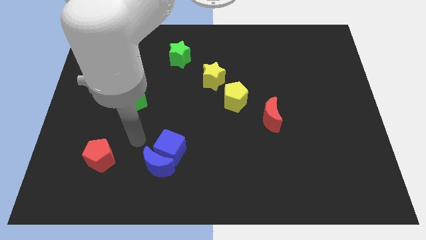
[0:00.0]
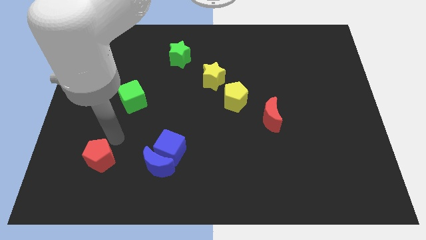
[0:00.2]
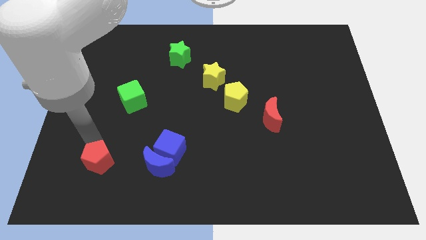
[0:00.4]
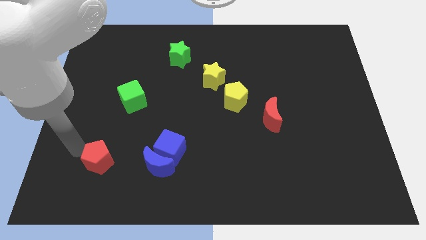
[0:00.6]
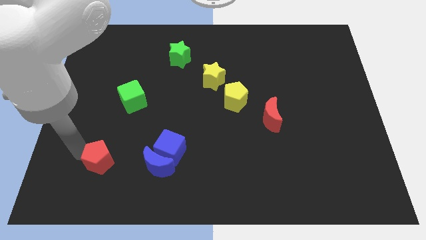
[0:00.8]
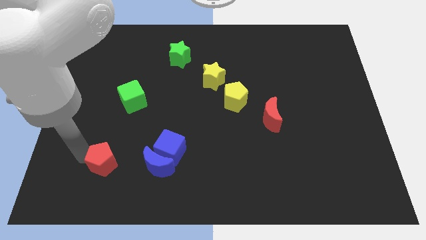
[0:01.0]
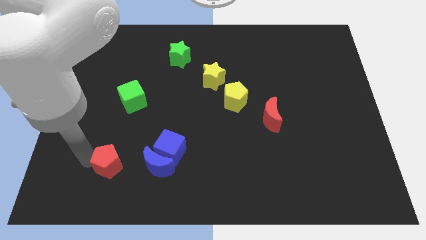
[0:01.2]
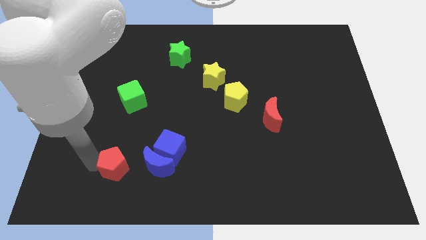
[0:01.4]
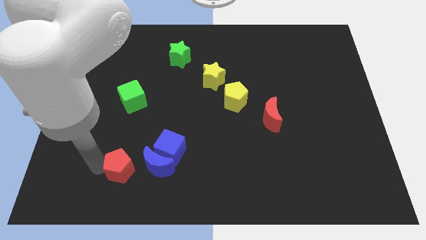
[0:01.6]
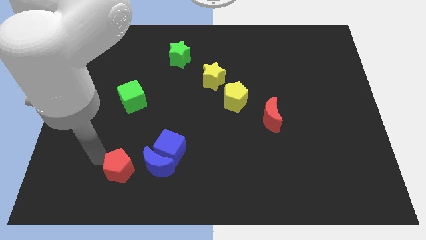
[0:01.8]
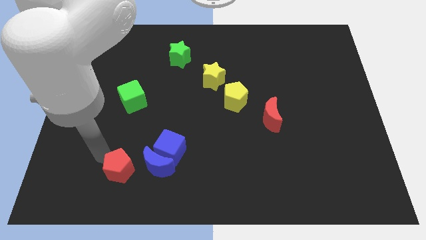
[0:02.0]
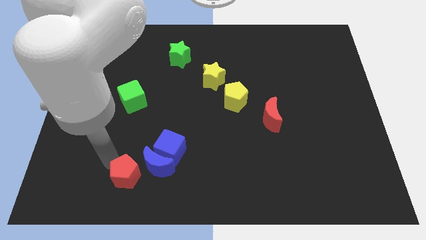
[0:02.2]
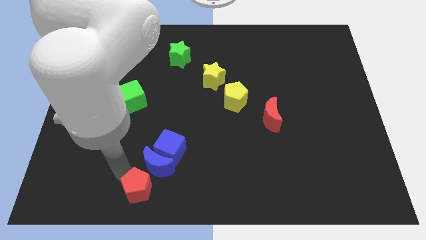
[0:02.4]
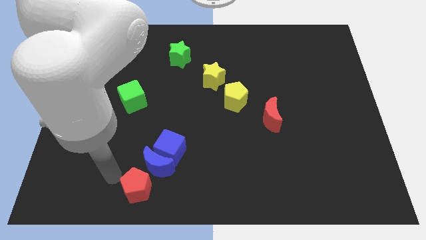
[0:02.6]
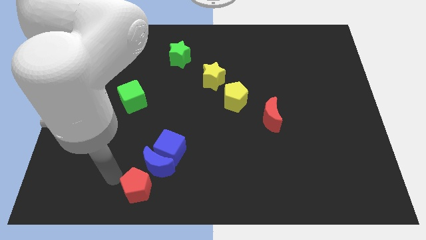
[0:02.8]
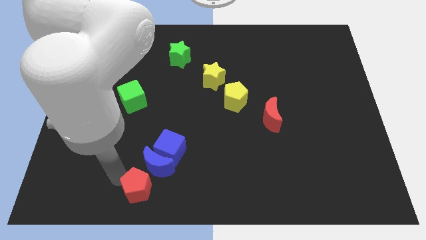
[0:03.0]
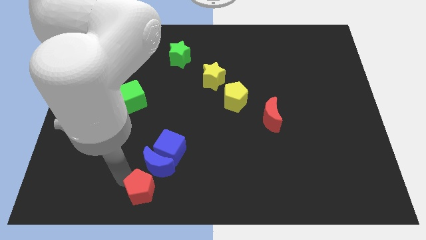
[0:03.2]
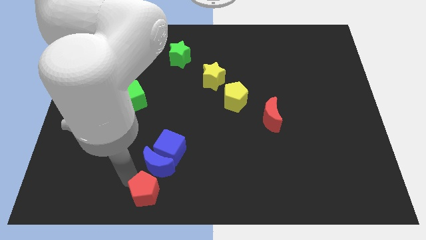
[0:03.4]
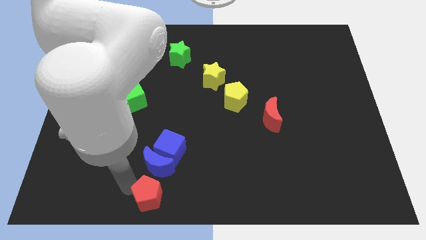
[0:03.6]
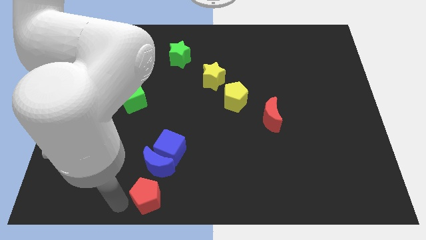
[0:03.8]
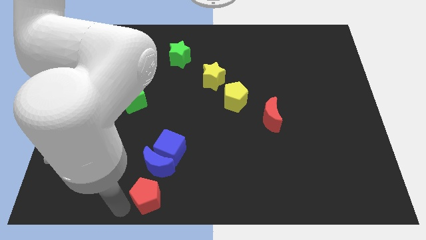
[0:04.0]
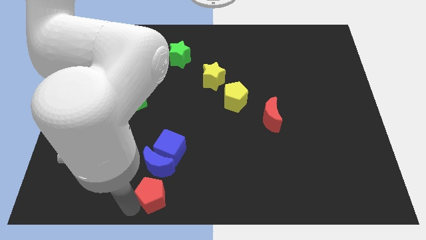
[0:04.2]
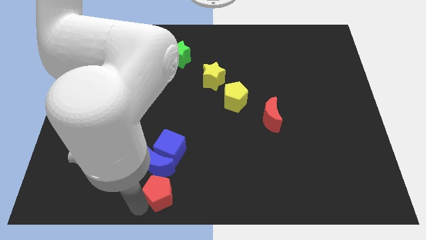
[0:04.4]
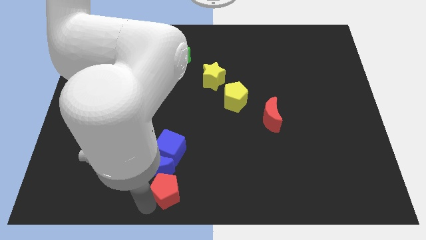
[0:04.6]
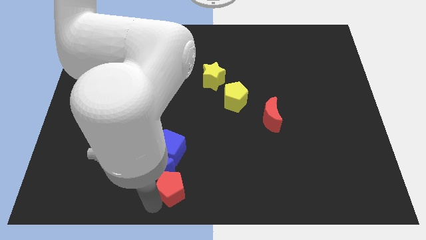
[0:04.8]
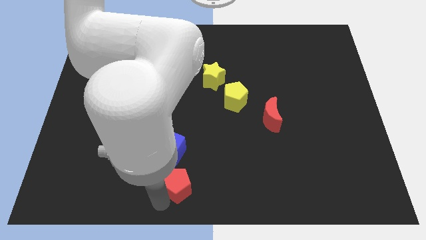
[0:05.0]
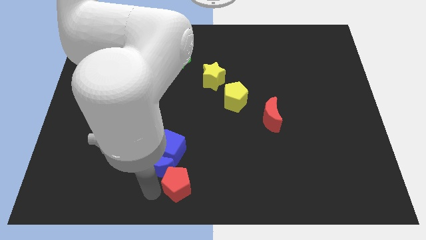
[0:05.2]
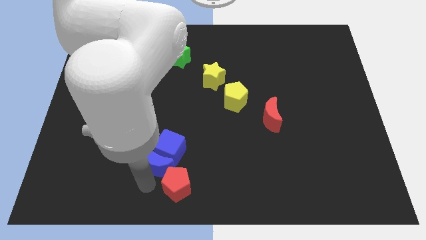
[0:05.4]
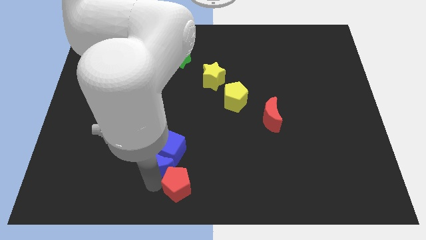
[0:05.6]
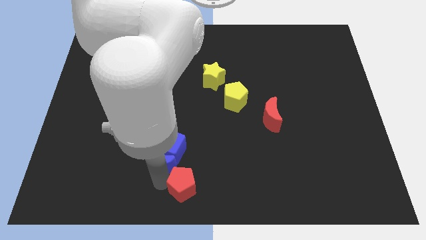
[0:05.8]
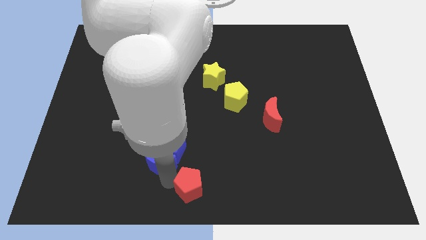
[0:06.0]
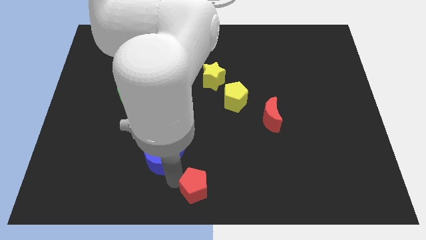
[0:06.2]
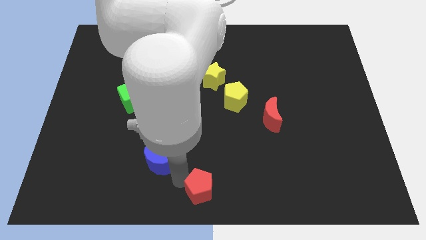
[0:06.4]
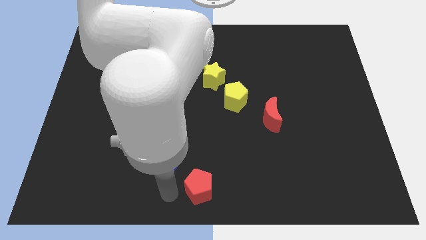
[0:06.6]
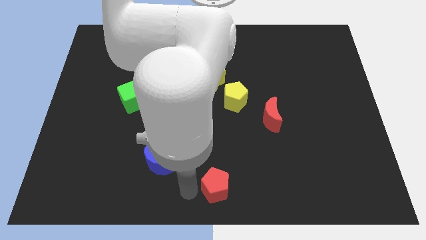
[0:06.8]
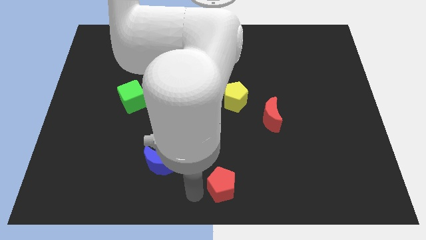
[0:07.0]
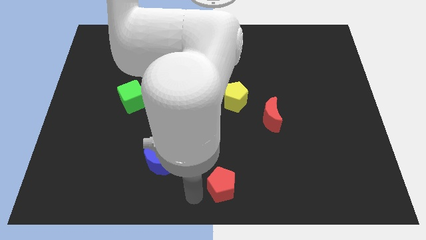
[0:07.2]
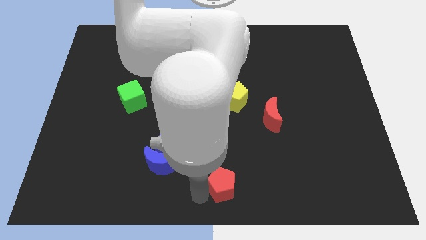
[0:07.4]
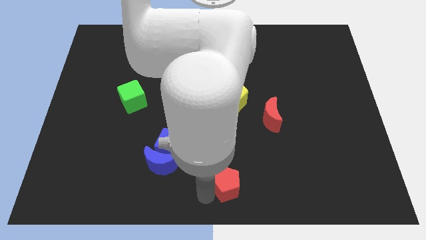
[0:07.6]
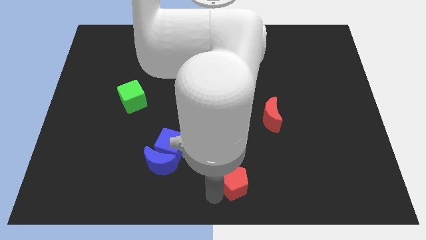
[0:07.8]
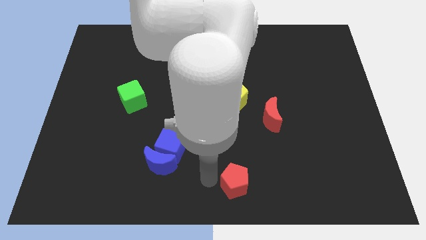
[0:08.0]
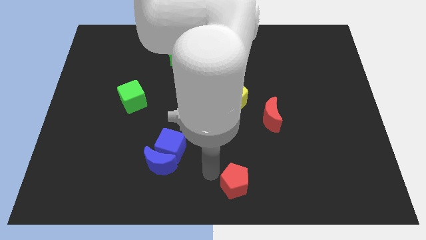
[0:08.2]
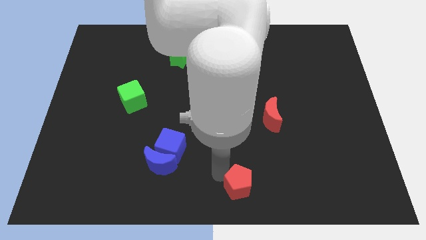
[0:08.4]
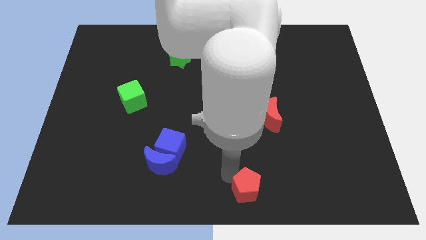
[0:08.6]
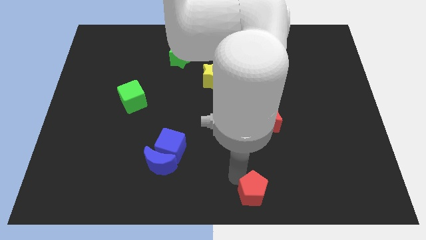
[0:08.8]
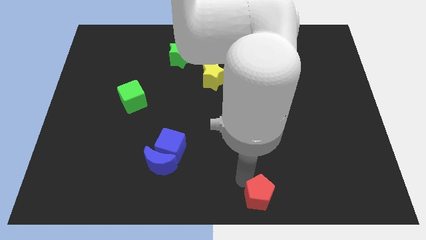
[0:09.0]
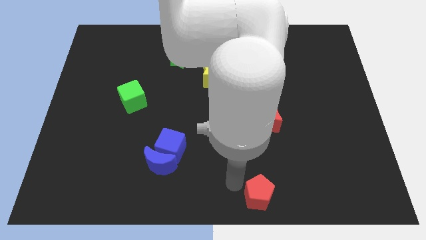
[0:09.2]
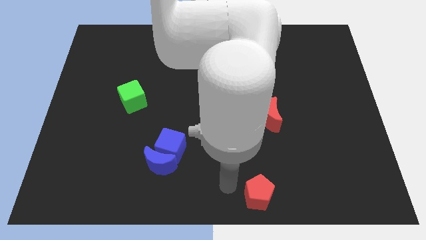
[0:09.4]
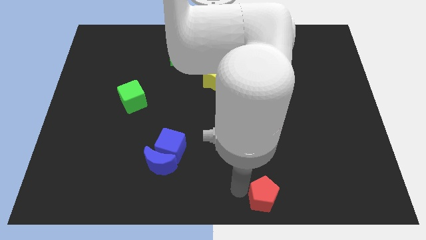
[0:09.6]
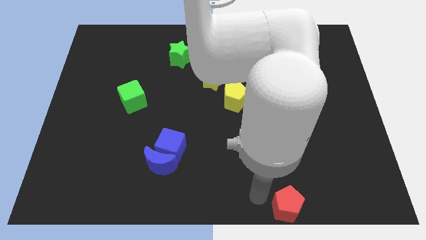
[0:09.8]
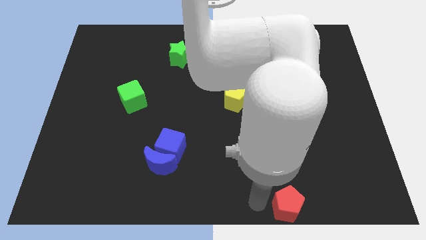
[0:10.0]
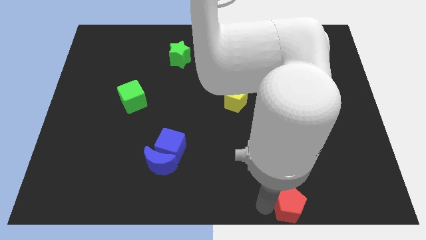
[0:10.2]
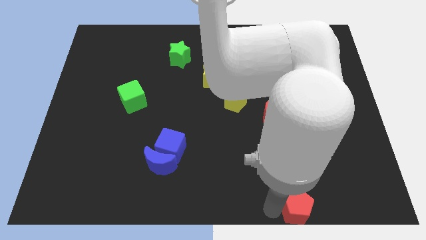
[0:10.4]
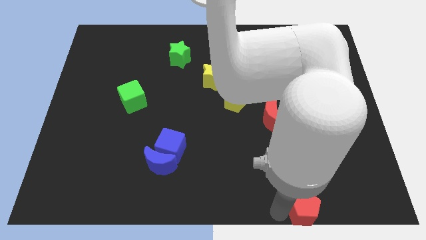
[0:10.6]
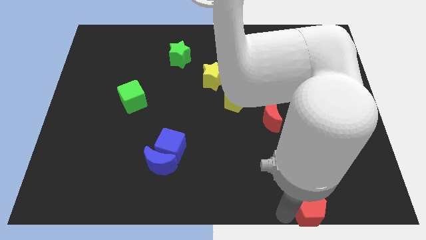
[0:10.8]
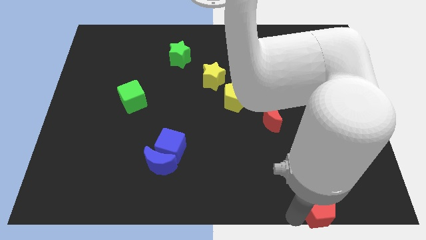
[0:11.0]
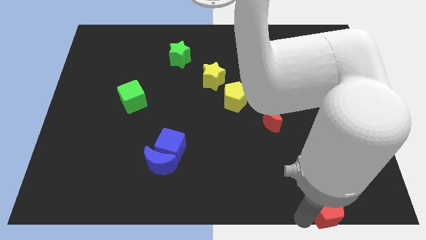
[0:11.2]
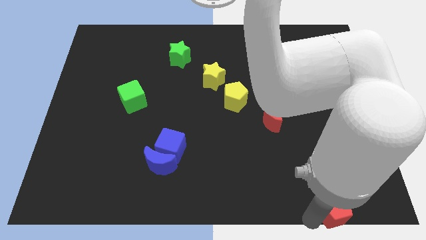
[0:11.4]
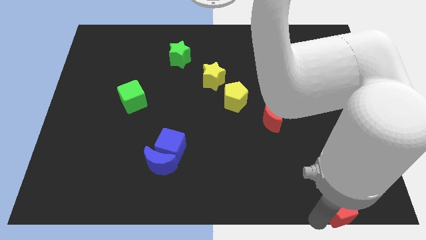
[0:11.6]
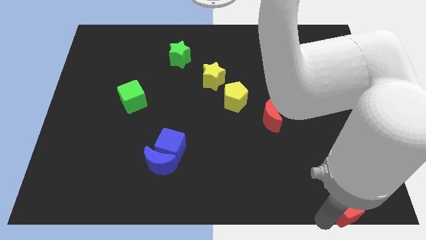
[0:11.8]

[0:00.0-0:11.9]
put the red pentagon to the bottom right corner
